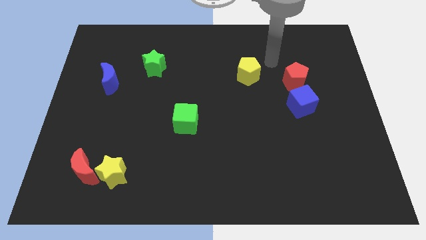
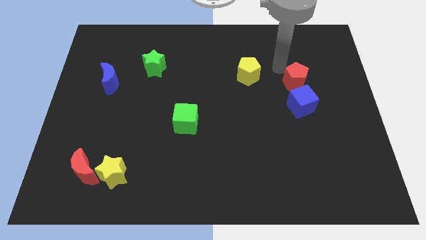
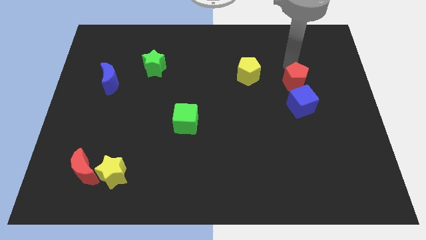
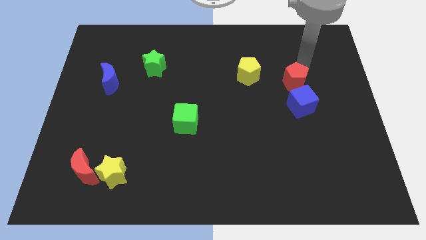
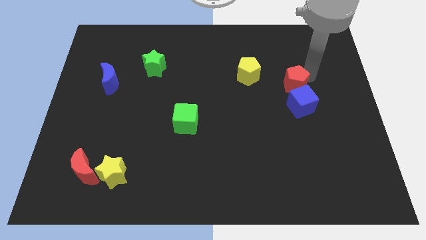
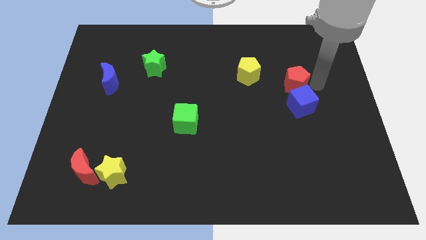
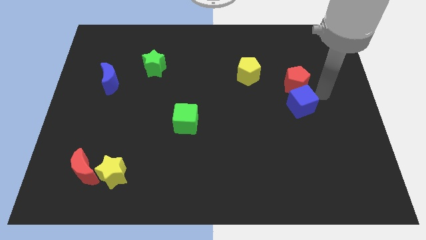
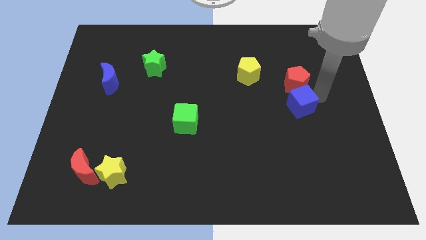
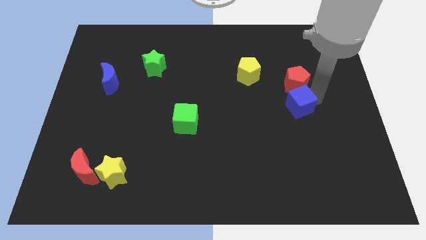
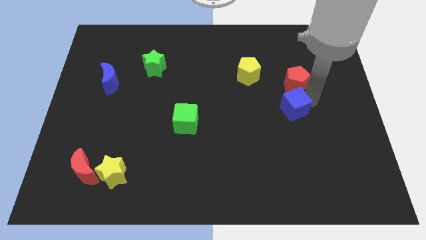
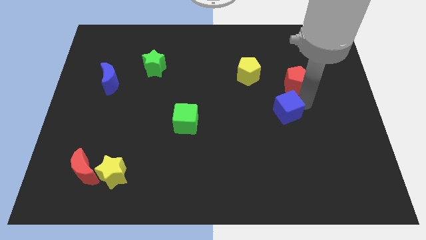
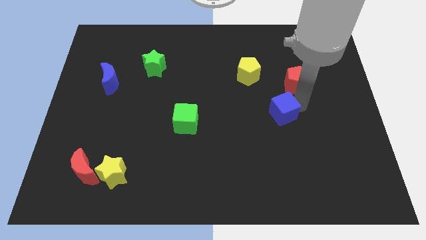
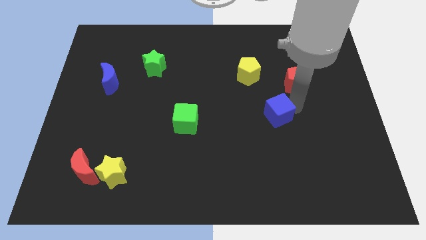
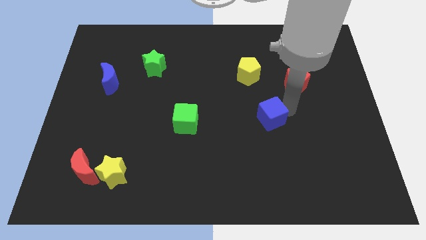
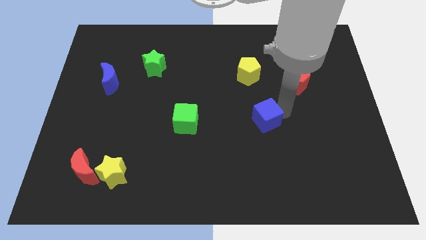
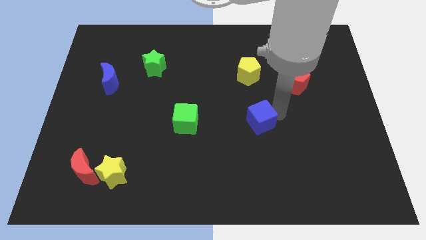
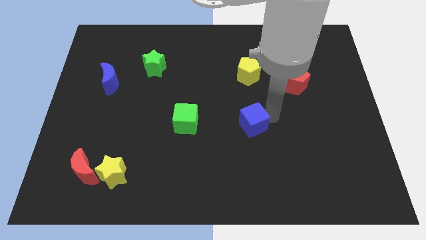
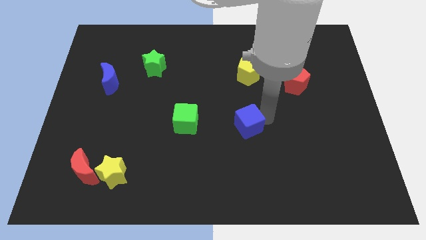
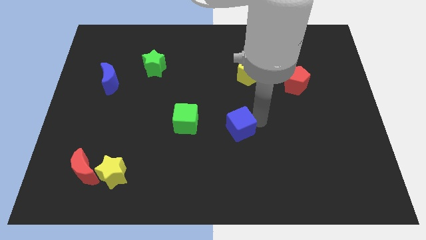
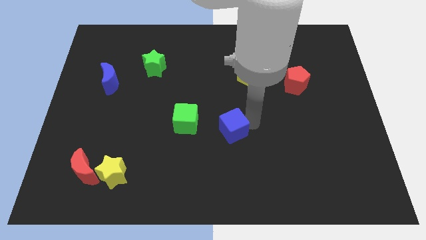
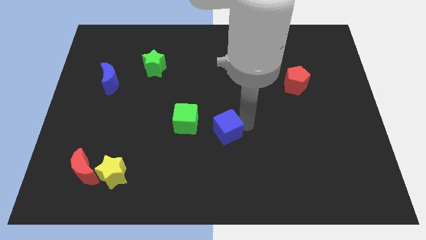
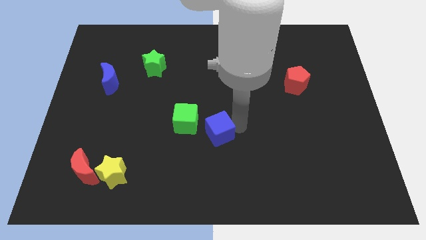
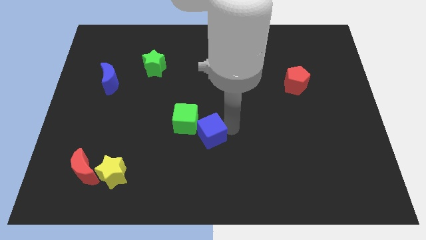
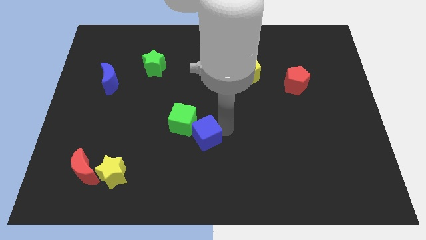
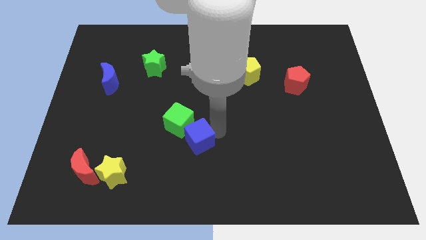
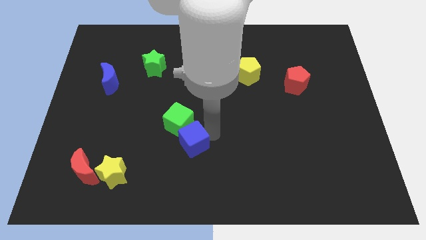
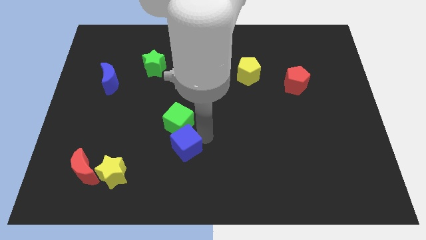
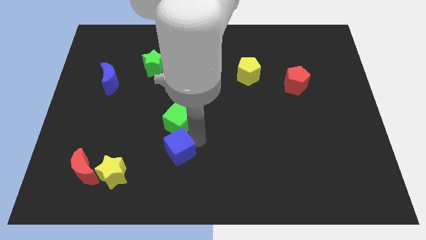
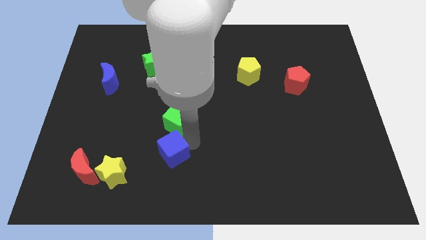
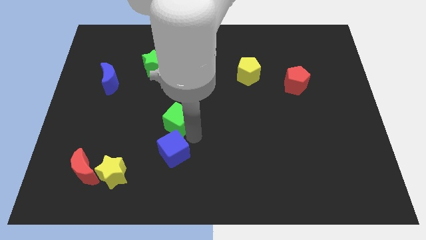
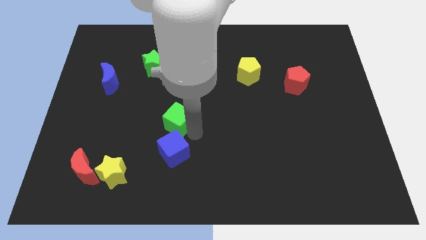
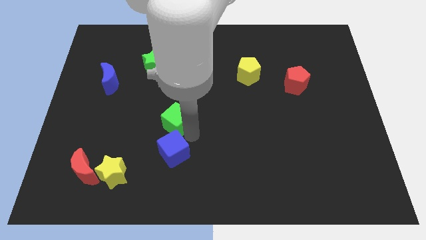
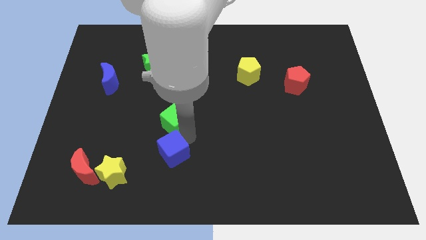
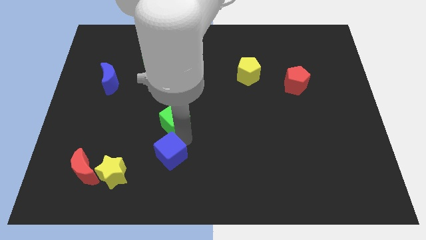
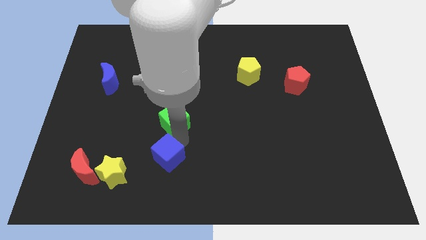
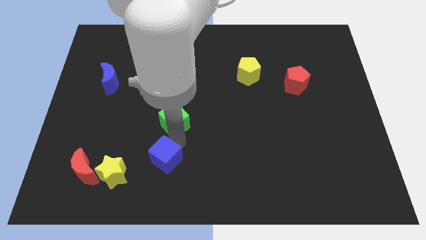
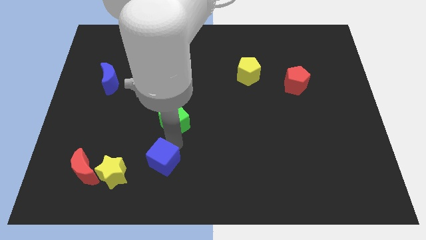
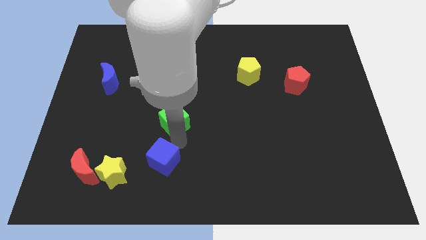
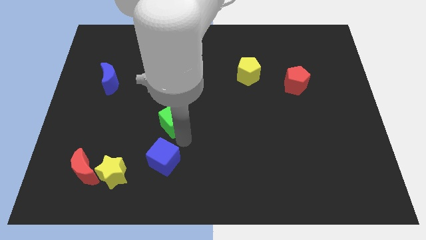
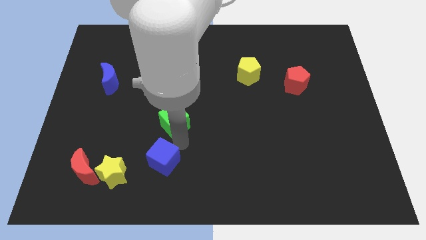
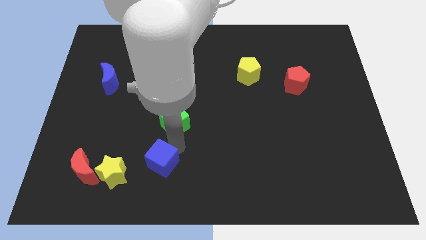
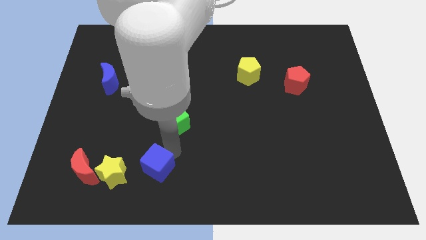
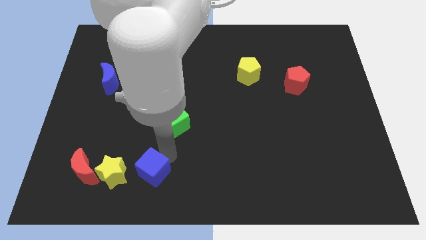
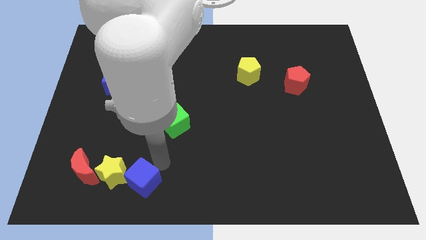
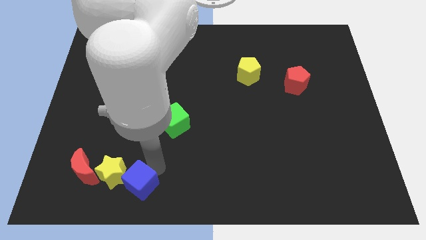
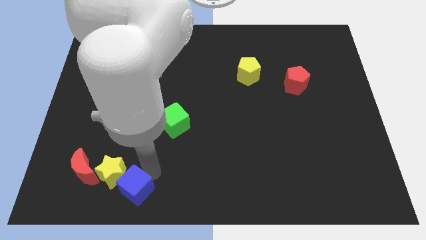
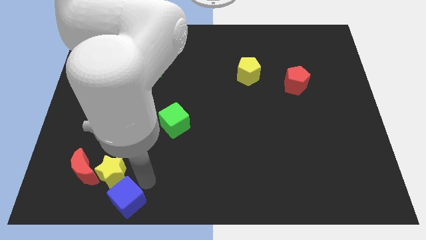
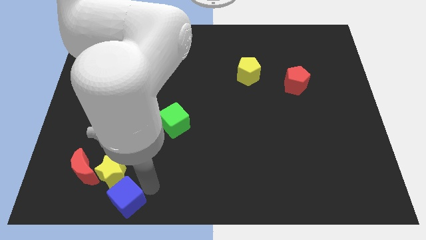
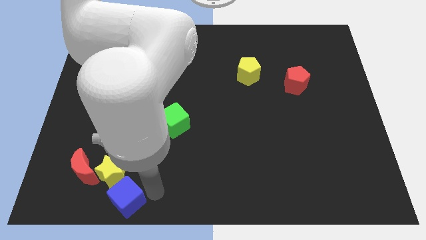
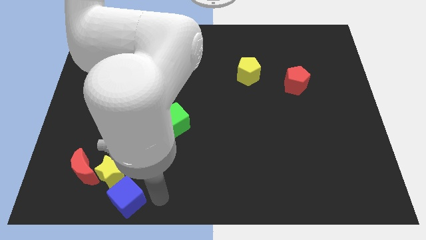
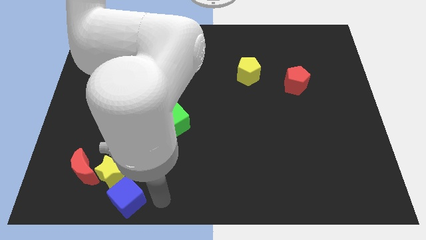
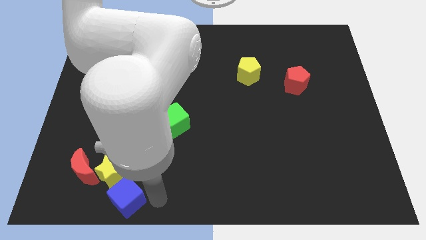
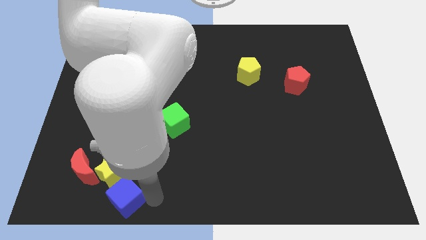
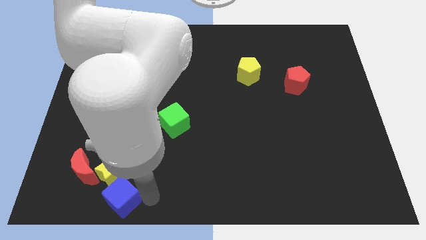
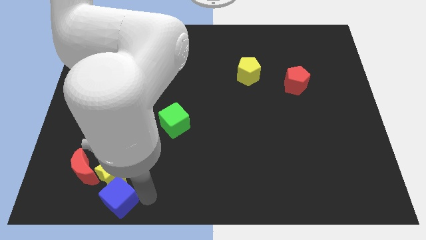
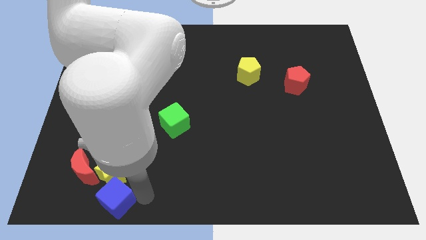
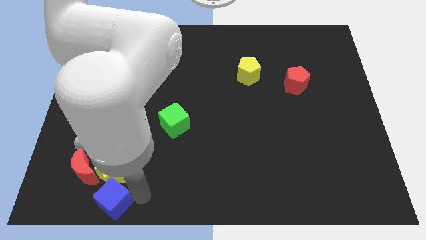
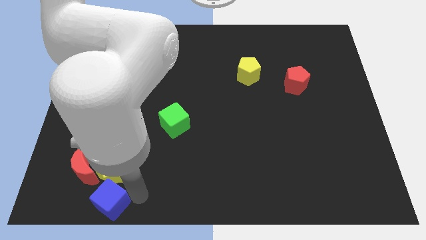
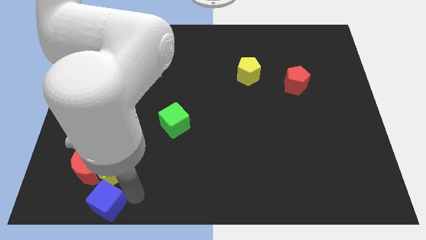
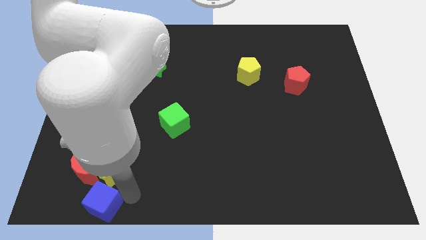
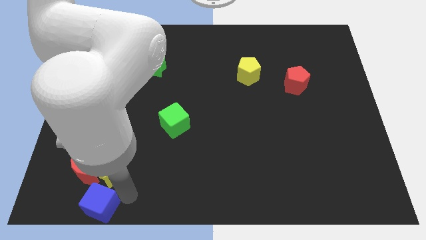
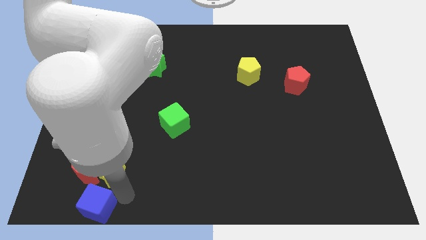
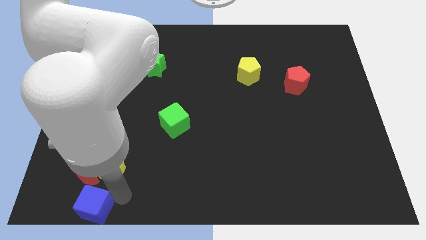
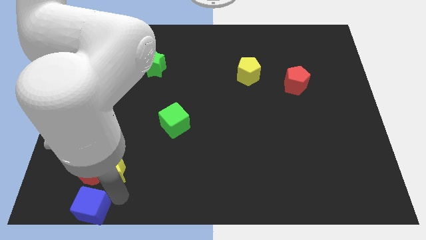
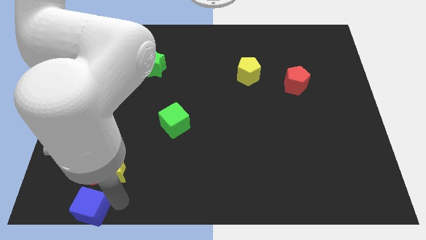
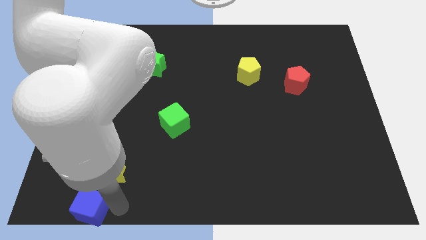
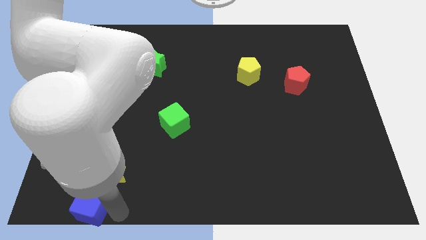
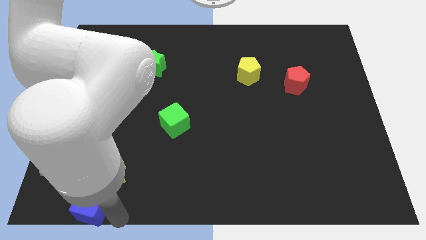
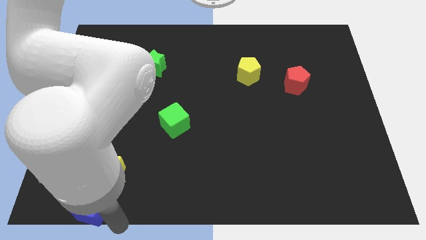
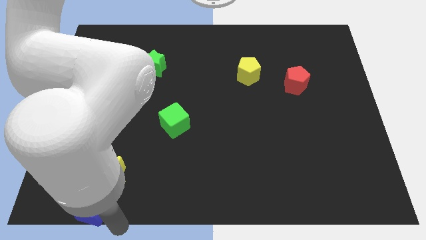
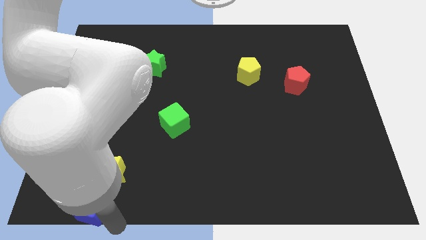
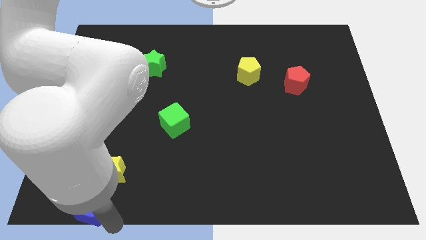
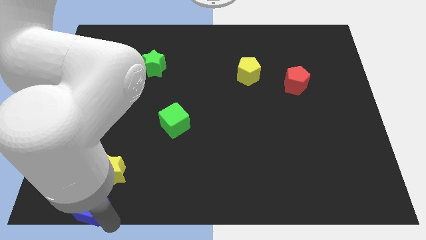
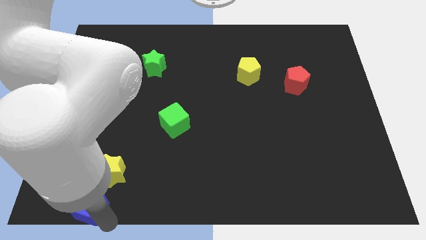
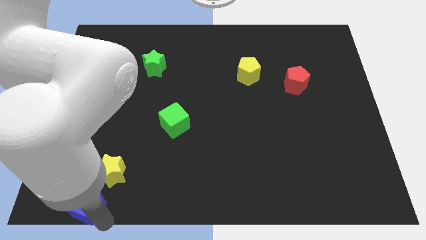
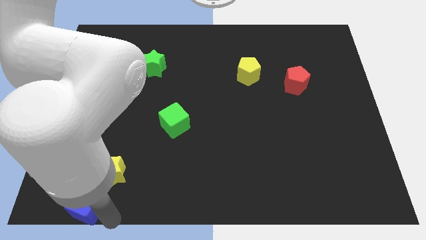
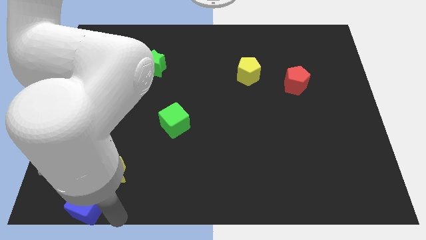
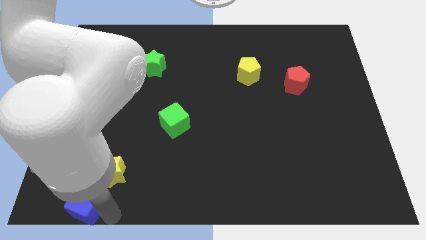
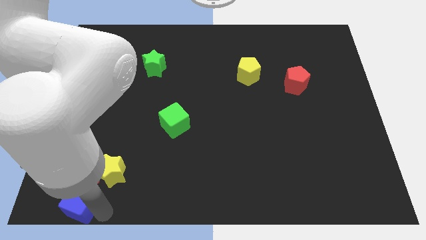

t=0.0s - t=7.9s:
move the blue cube to the bottom left
